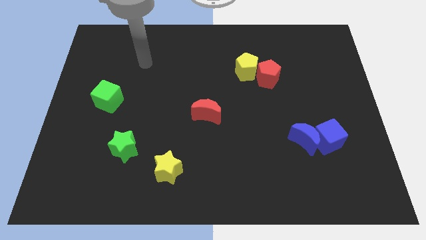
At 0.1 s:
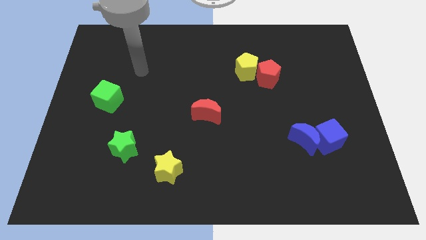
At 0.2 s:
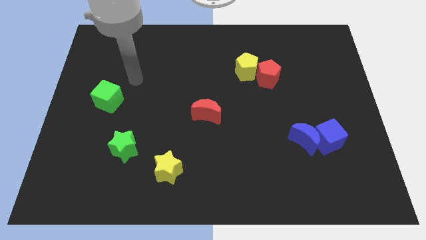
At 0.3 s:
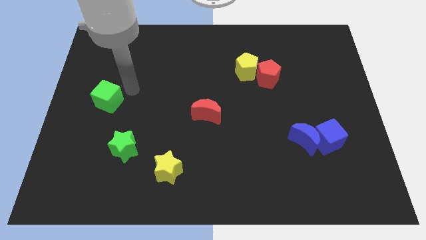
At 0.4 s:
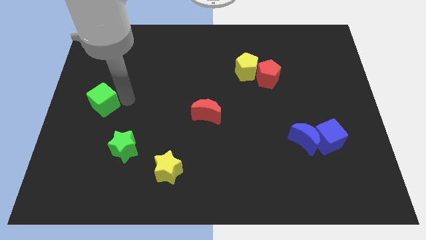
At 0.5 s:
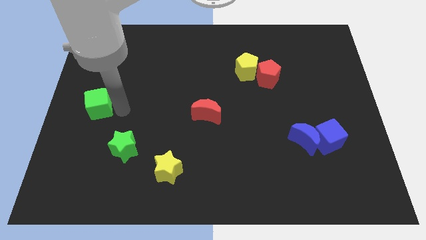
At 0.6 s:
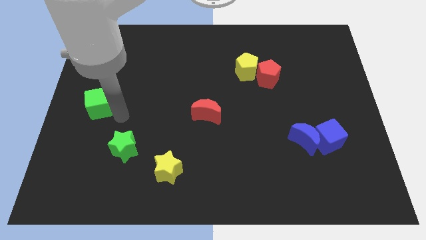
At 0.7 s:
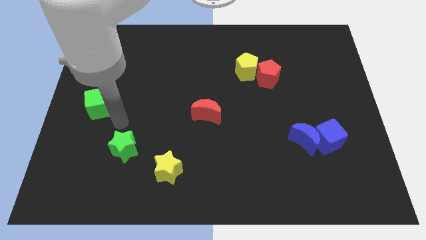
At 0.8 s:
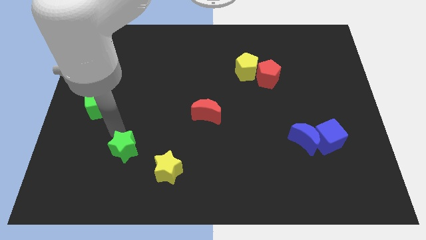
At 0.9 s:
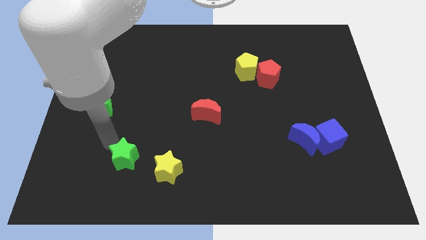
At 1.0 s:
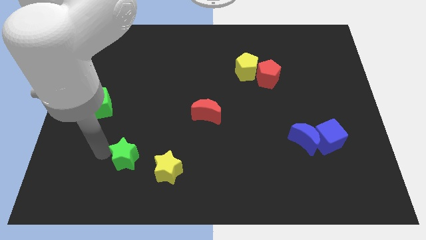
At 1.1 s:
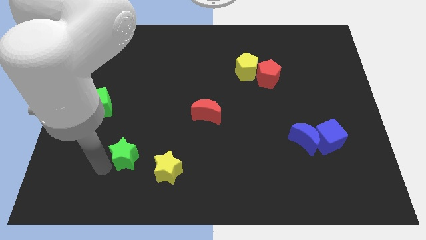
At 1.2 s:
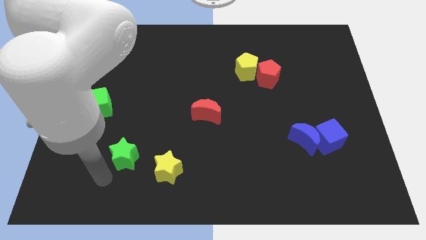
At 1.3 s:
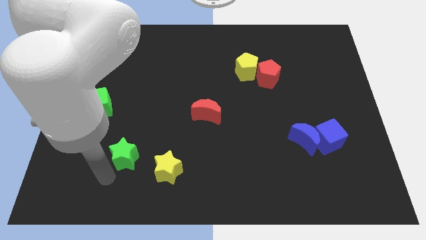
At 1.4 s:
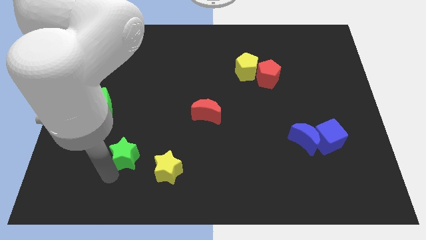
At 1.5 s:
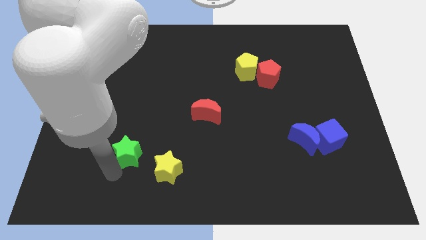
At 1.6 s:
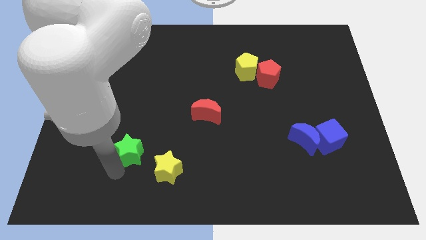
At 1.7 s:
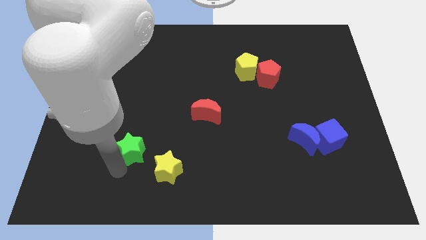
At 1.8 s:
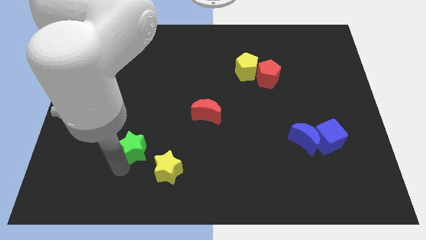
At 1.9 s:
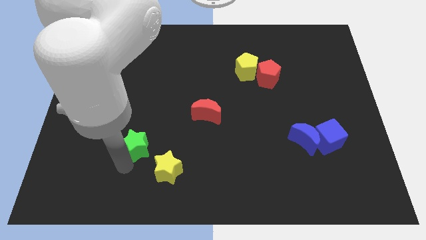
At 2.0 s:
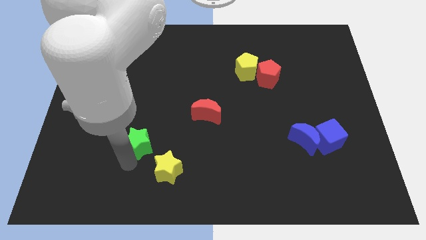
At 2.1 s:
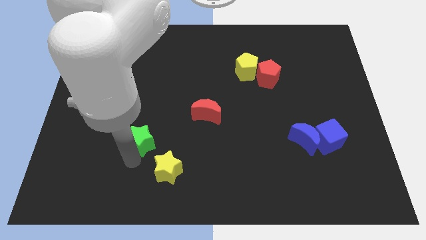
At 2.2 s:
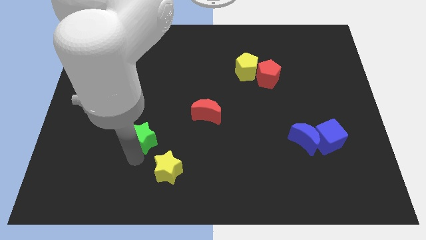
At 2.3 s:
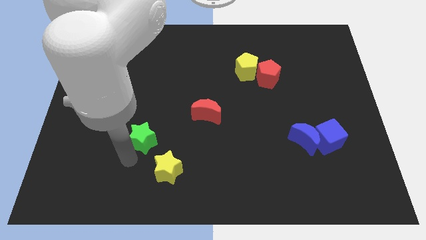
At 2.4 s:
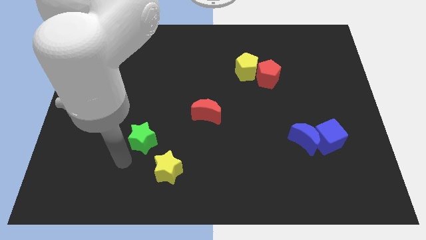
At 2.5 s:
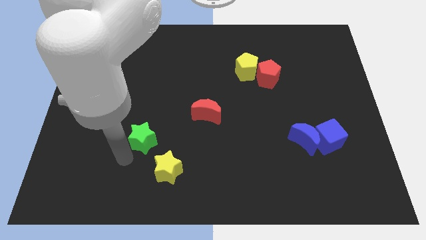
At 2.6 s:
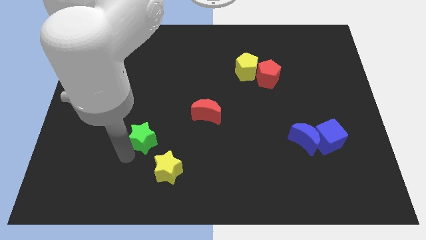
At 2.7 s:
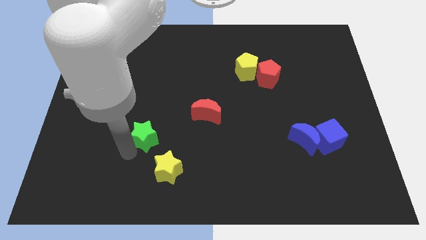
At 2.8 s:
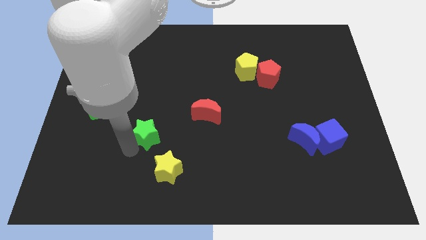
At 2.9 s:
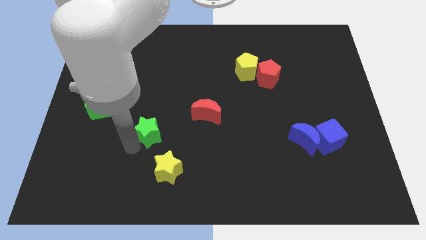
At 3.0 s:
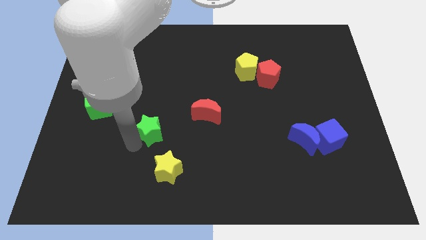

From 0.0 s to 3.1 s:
slightly move the green star upwards and then to the right

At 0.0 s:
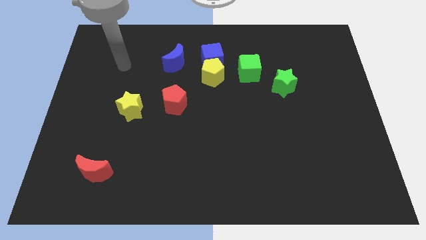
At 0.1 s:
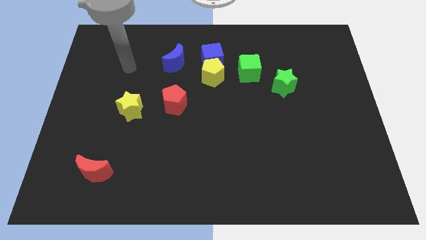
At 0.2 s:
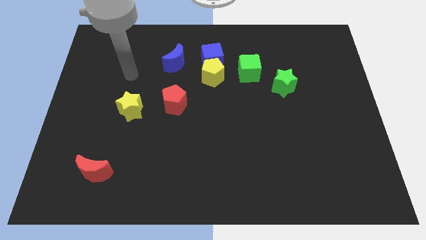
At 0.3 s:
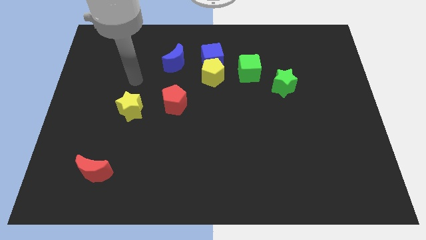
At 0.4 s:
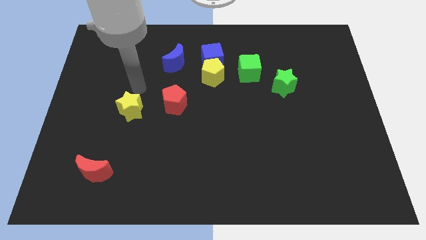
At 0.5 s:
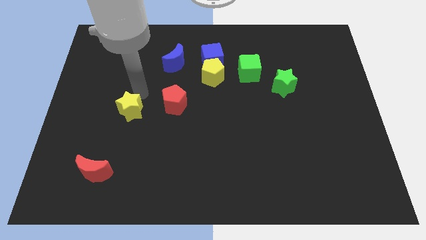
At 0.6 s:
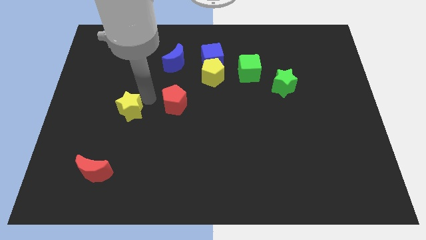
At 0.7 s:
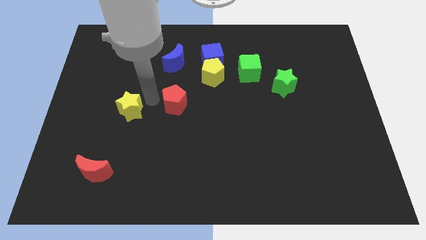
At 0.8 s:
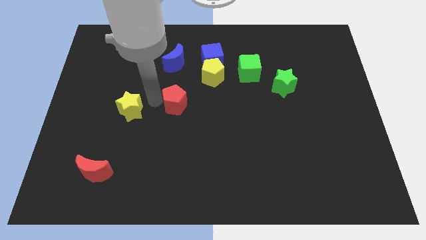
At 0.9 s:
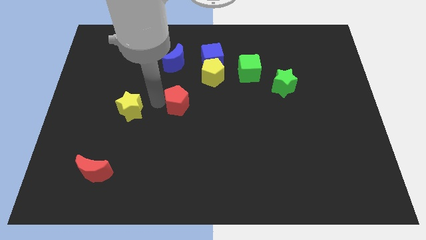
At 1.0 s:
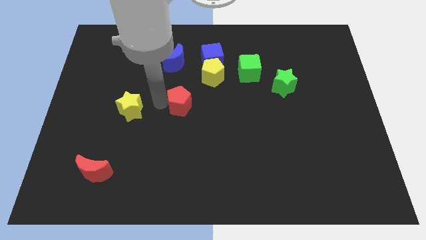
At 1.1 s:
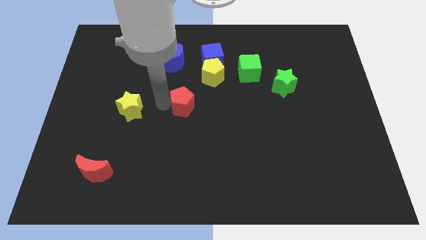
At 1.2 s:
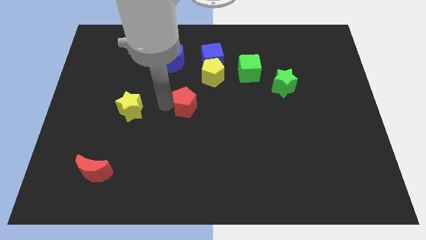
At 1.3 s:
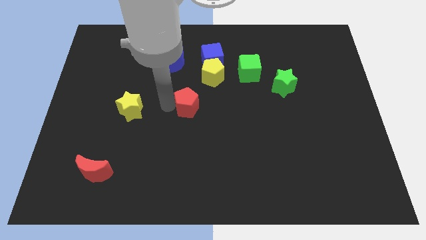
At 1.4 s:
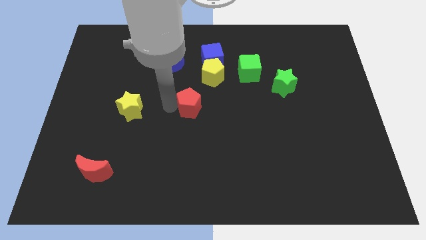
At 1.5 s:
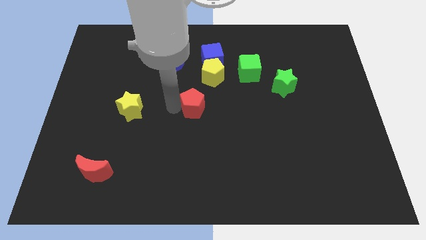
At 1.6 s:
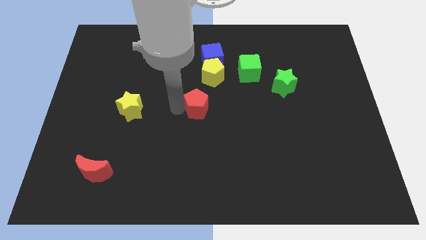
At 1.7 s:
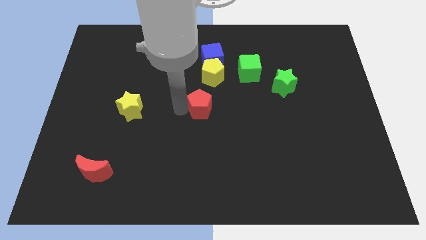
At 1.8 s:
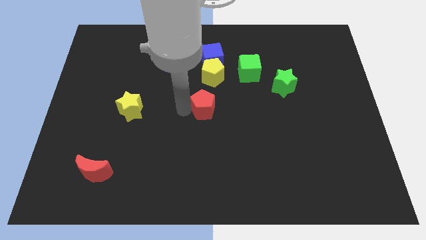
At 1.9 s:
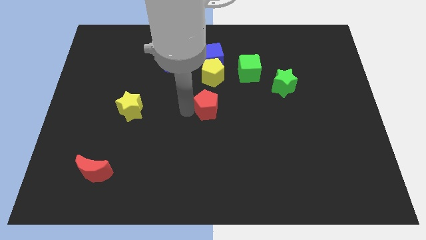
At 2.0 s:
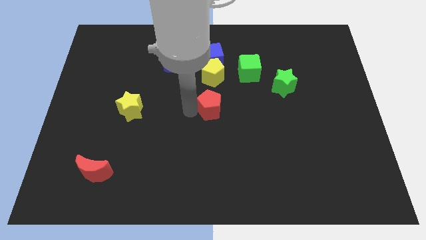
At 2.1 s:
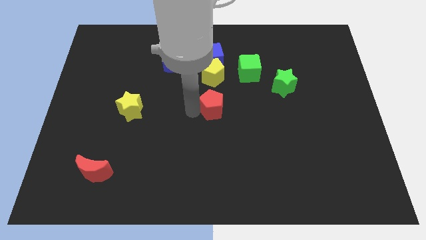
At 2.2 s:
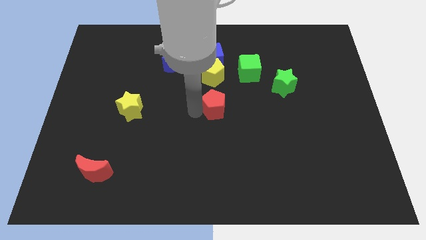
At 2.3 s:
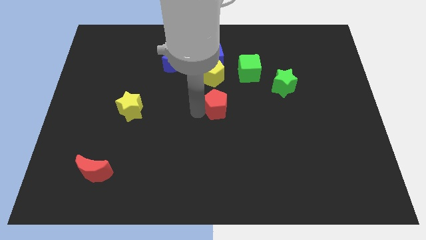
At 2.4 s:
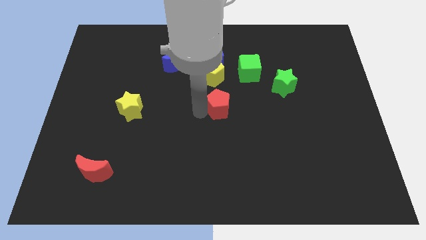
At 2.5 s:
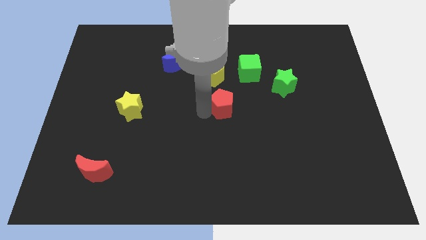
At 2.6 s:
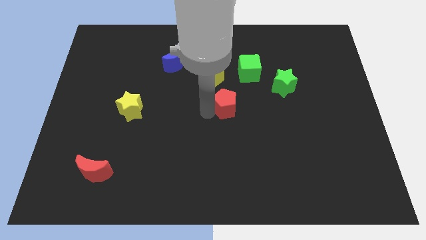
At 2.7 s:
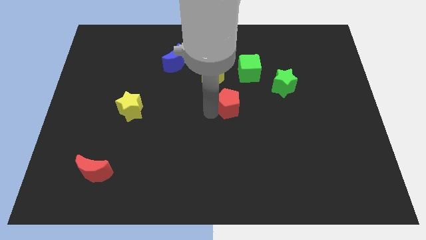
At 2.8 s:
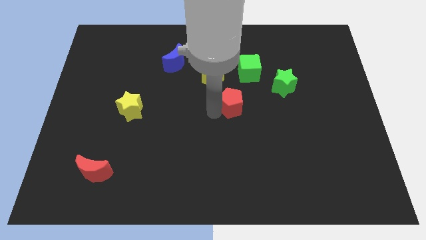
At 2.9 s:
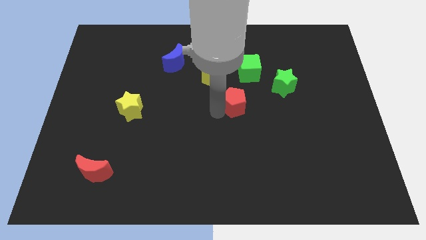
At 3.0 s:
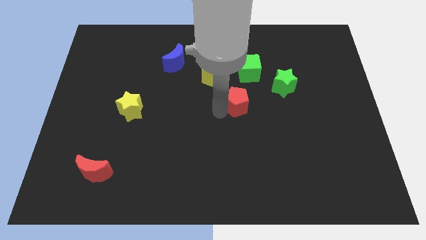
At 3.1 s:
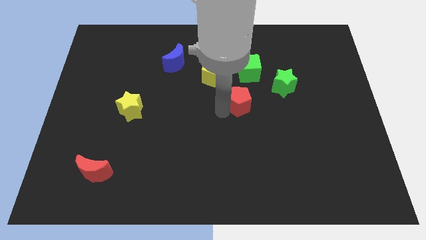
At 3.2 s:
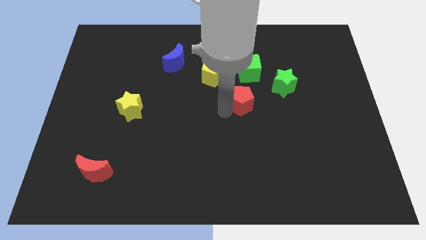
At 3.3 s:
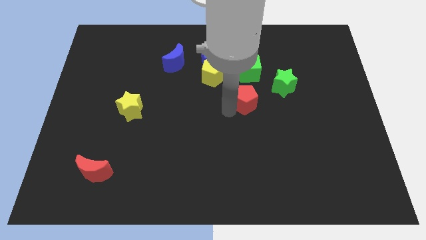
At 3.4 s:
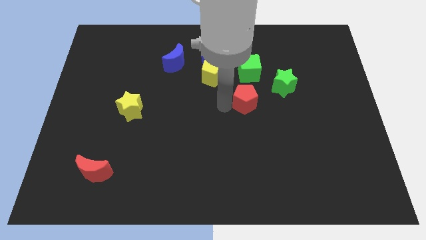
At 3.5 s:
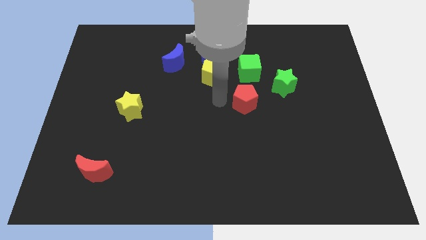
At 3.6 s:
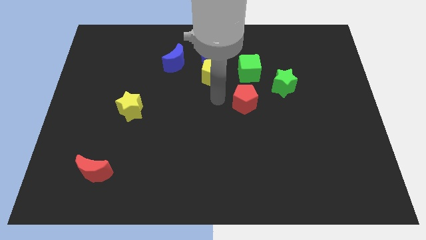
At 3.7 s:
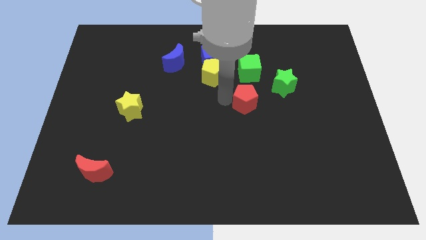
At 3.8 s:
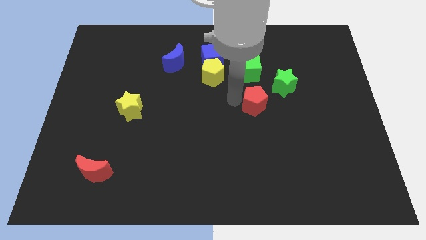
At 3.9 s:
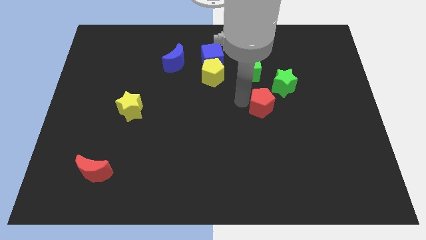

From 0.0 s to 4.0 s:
move the red pentagon to the right

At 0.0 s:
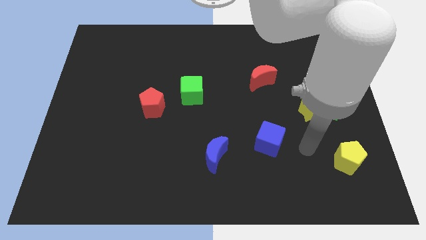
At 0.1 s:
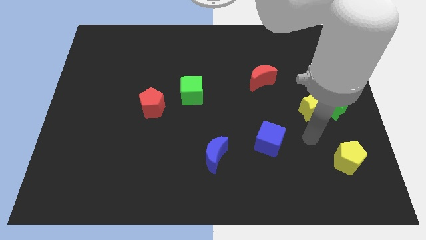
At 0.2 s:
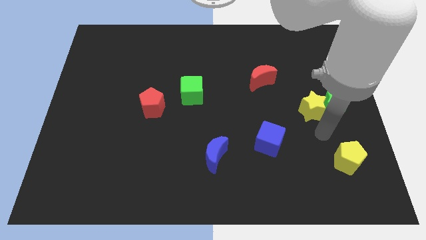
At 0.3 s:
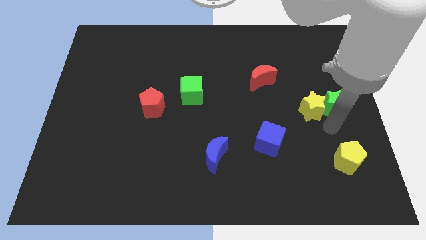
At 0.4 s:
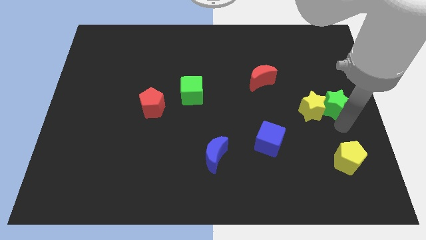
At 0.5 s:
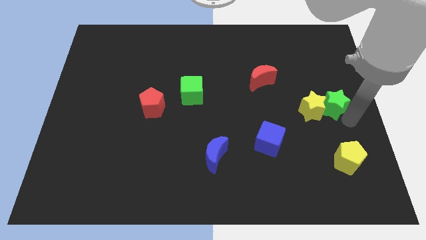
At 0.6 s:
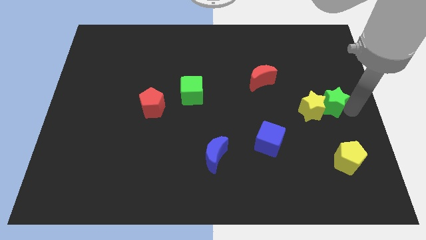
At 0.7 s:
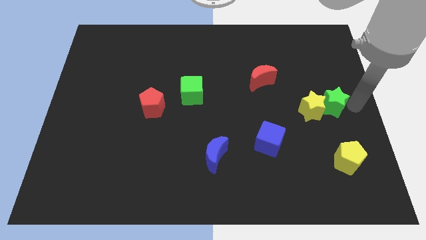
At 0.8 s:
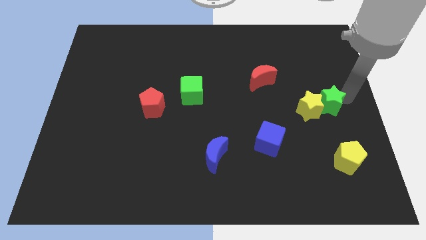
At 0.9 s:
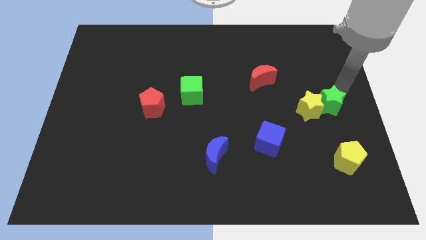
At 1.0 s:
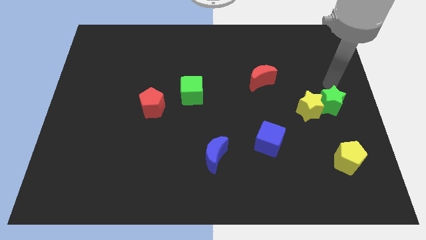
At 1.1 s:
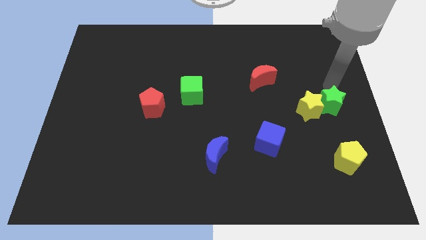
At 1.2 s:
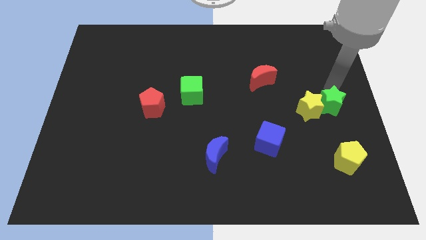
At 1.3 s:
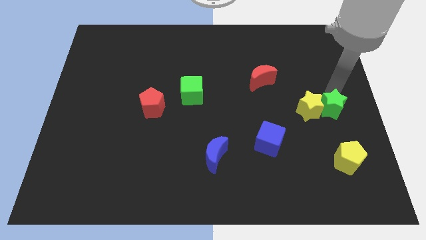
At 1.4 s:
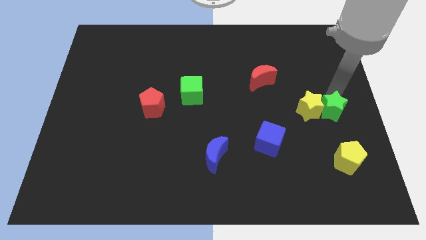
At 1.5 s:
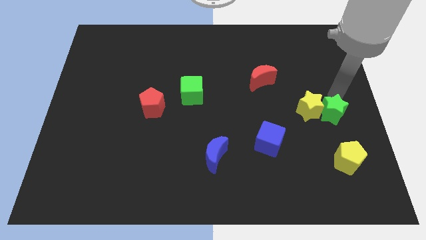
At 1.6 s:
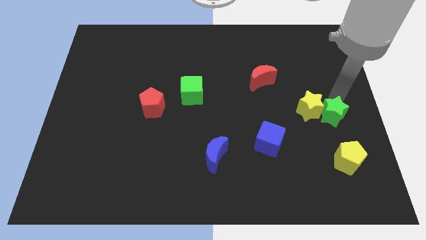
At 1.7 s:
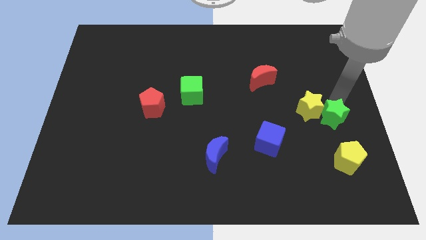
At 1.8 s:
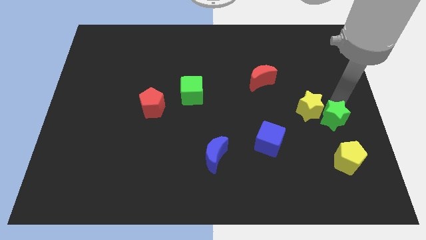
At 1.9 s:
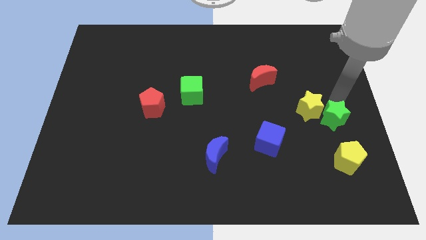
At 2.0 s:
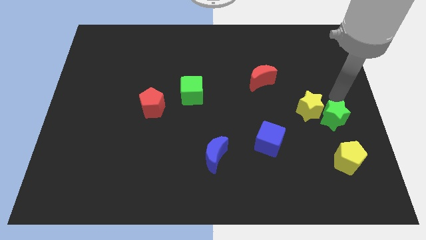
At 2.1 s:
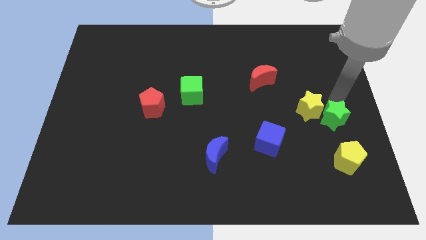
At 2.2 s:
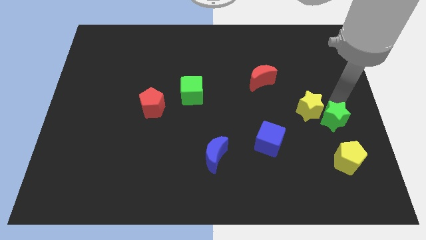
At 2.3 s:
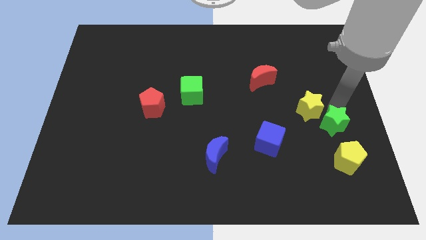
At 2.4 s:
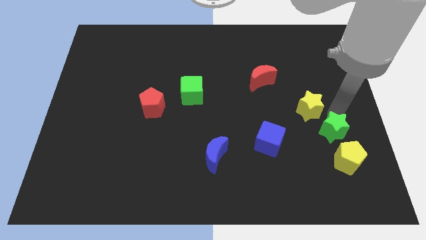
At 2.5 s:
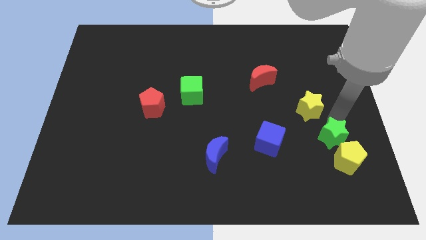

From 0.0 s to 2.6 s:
slightly move the green star down
